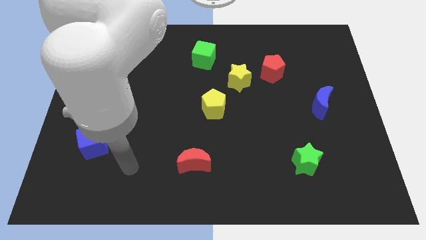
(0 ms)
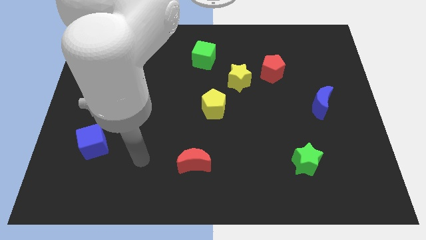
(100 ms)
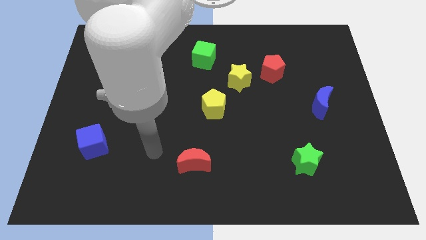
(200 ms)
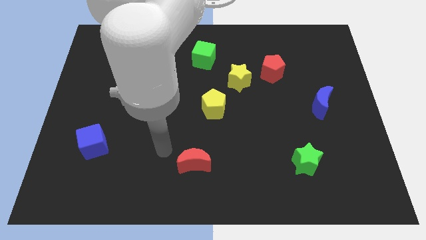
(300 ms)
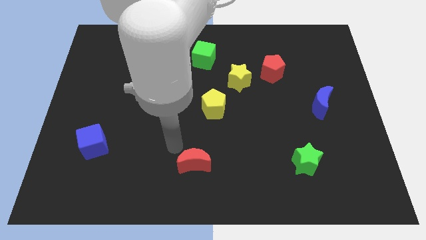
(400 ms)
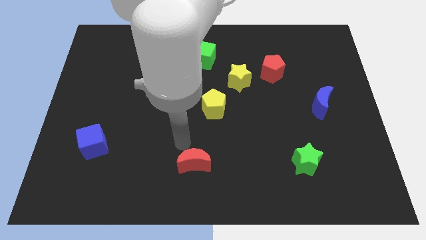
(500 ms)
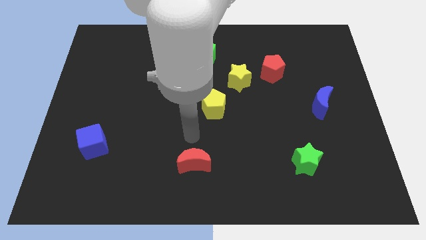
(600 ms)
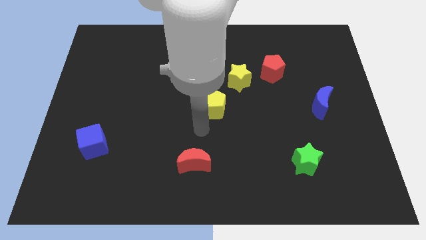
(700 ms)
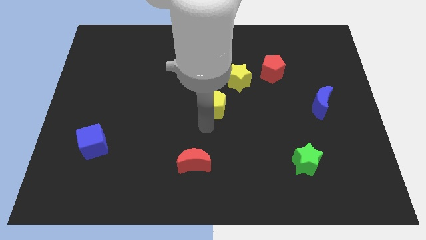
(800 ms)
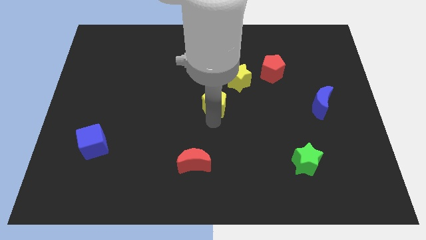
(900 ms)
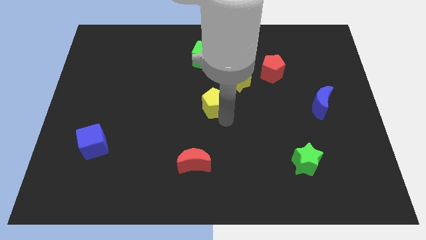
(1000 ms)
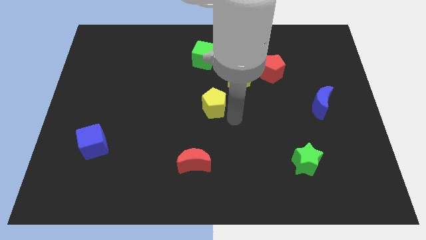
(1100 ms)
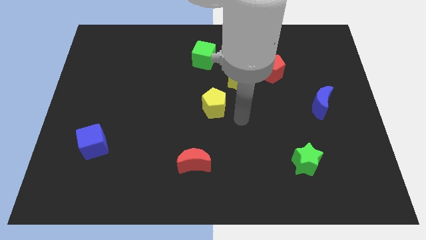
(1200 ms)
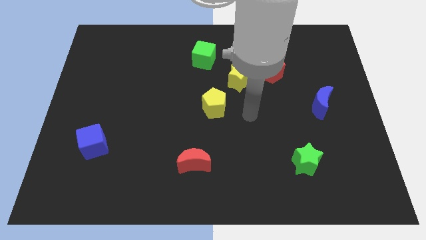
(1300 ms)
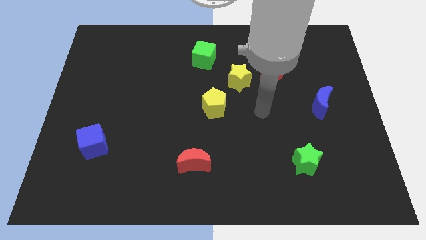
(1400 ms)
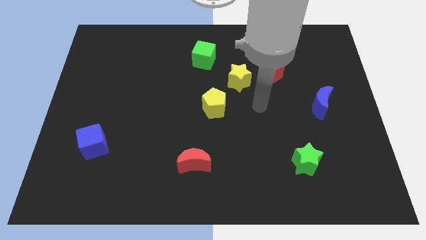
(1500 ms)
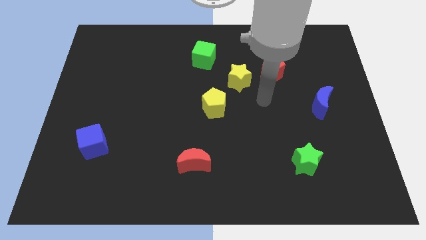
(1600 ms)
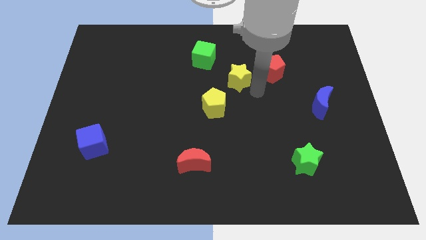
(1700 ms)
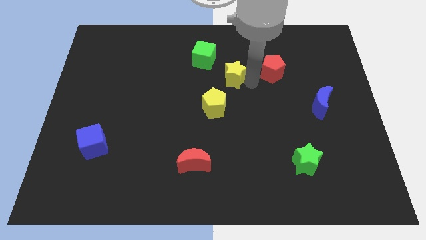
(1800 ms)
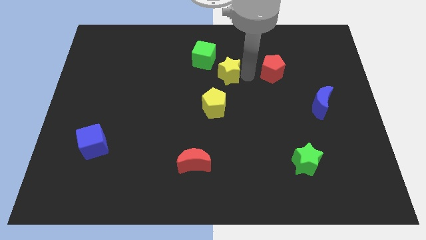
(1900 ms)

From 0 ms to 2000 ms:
move the red pentagon away from the yellow star

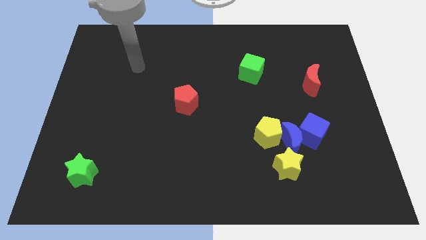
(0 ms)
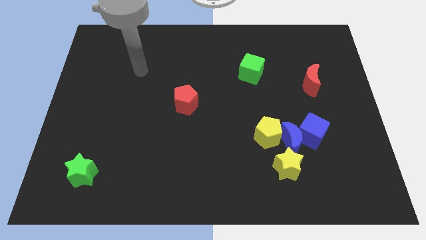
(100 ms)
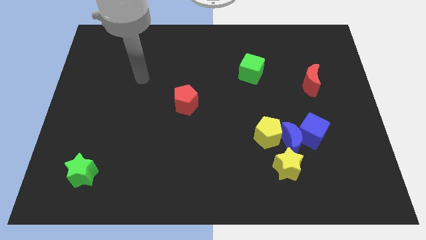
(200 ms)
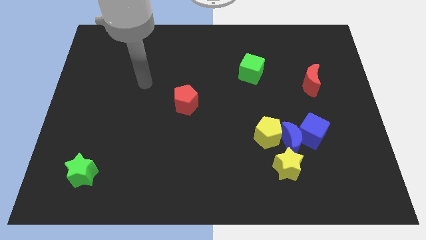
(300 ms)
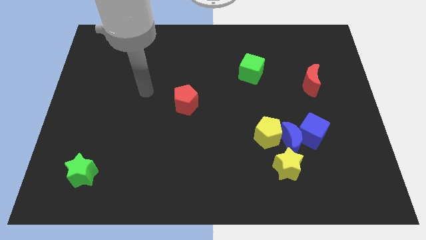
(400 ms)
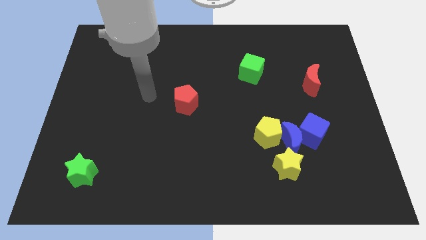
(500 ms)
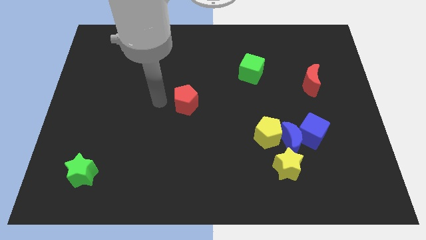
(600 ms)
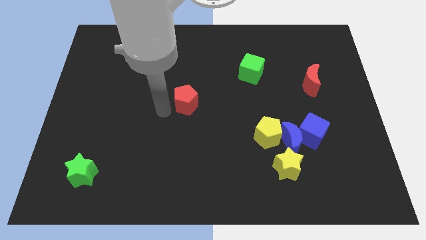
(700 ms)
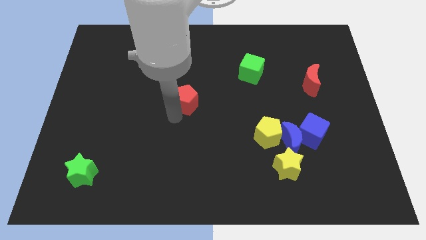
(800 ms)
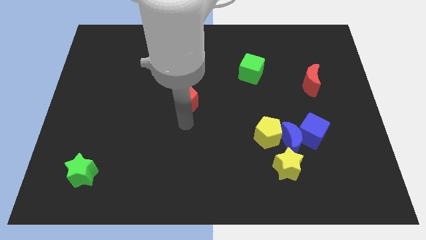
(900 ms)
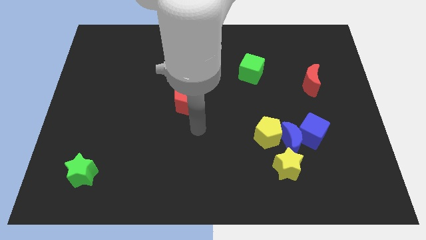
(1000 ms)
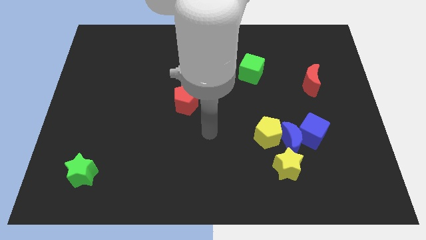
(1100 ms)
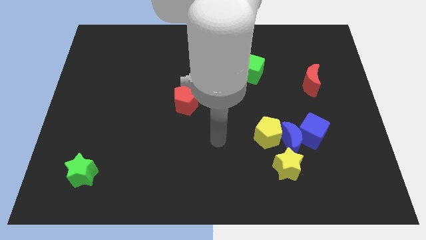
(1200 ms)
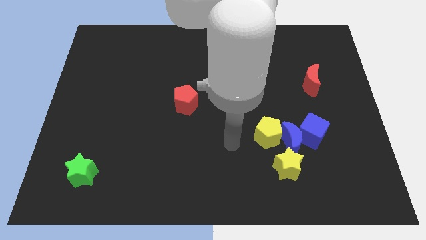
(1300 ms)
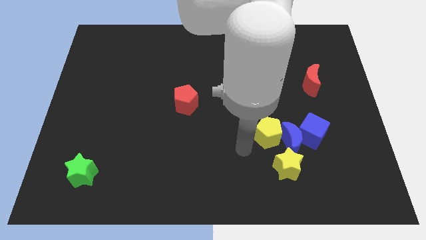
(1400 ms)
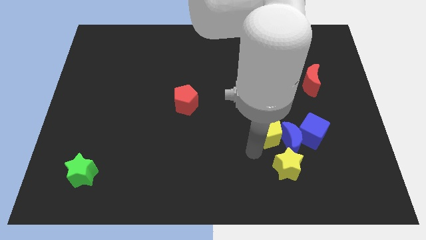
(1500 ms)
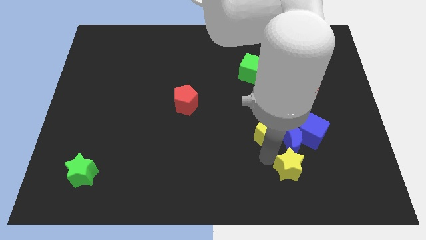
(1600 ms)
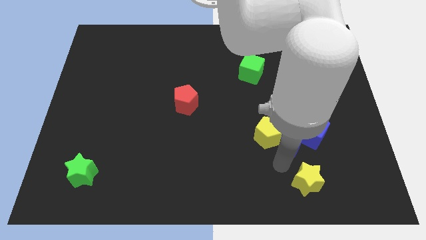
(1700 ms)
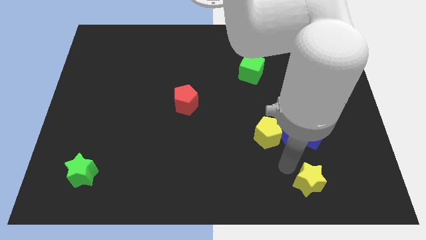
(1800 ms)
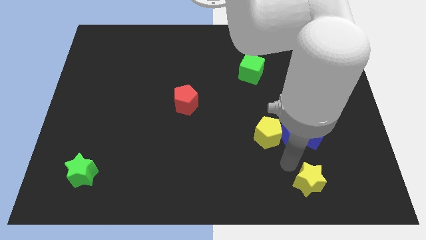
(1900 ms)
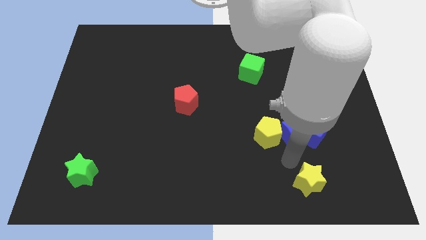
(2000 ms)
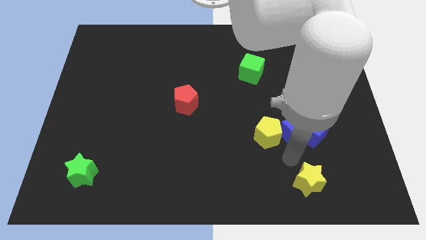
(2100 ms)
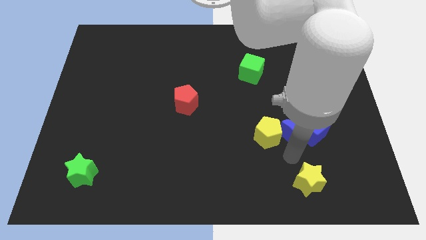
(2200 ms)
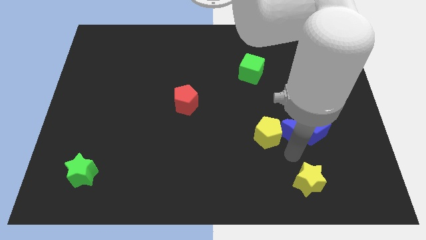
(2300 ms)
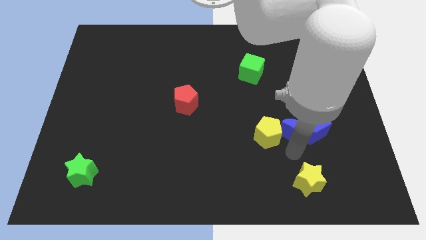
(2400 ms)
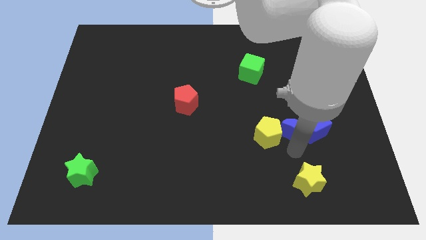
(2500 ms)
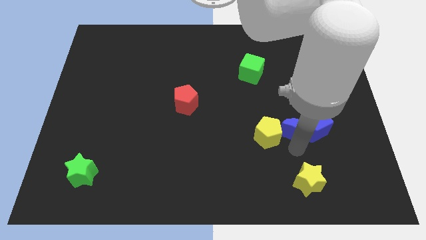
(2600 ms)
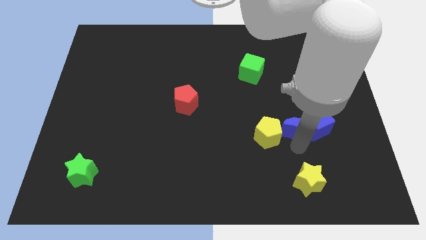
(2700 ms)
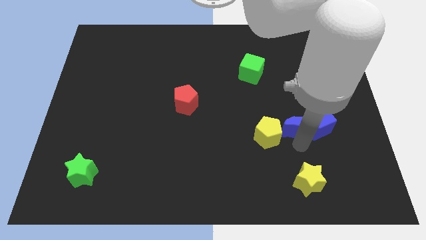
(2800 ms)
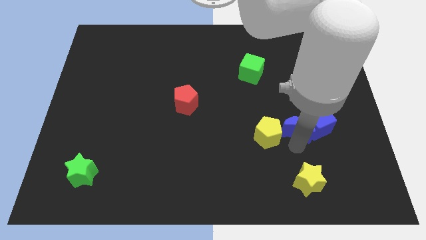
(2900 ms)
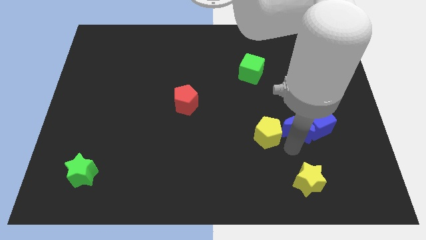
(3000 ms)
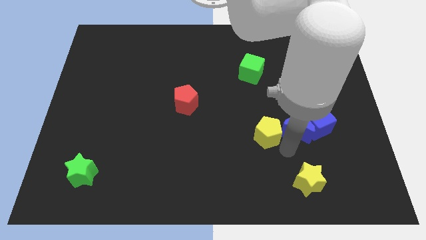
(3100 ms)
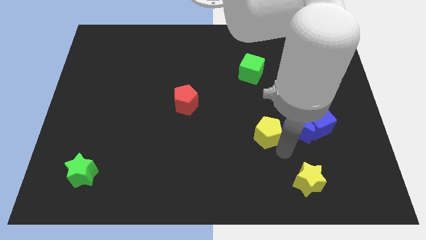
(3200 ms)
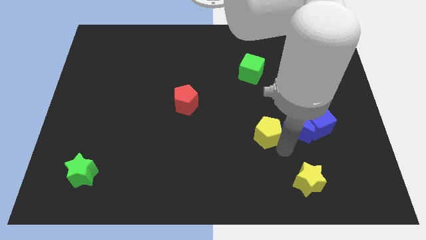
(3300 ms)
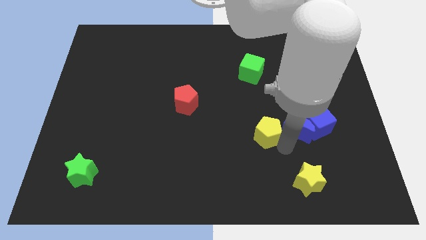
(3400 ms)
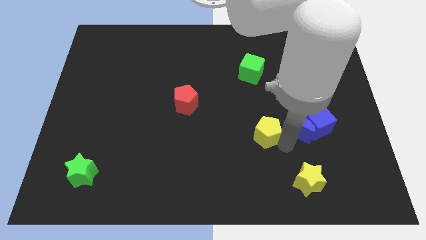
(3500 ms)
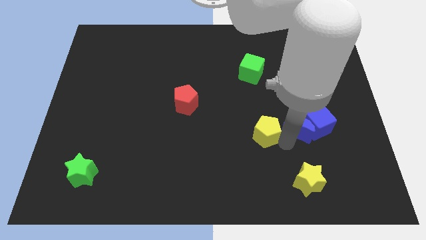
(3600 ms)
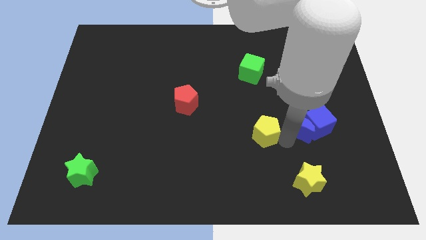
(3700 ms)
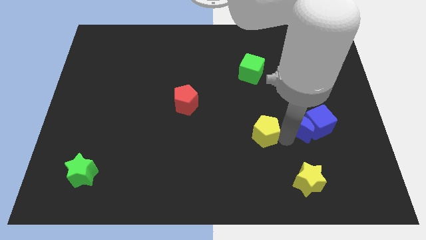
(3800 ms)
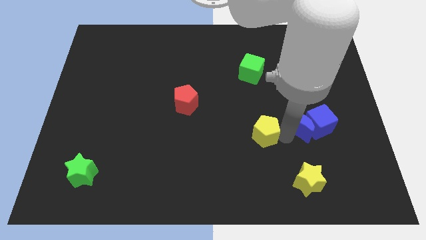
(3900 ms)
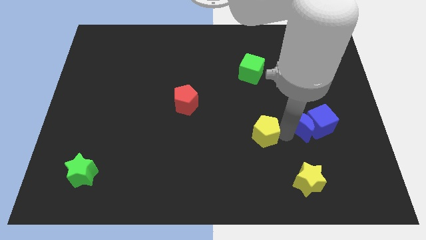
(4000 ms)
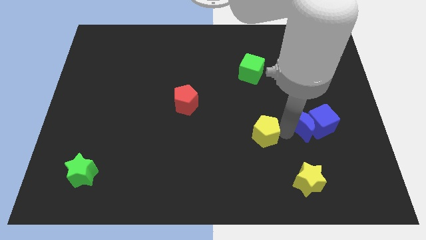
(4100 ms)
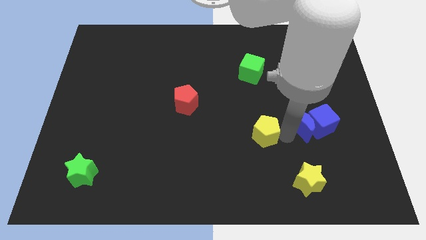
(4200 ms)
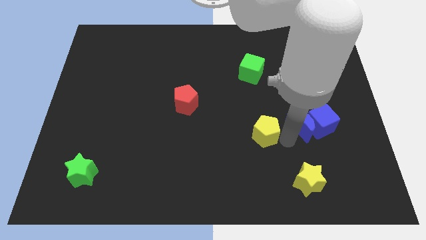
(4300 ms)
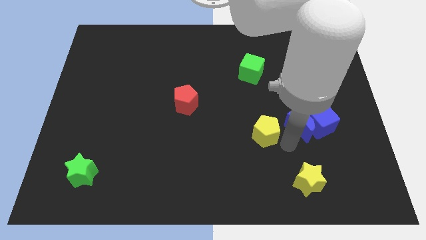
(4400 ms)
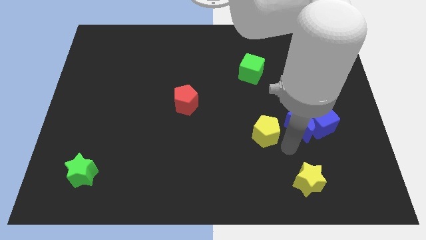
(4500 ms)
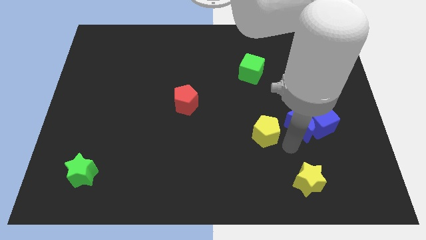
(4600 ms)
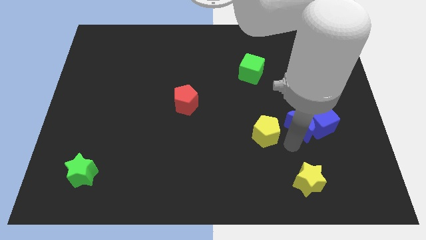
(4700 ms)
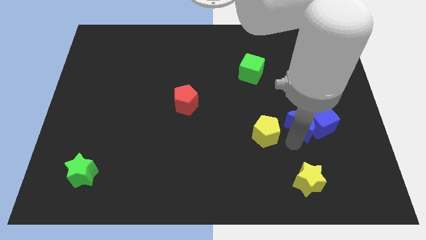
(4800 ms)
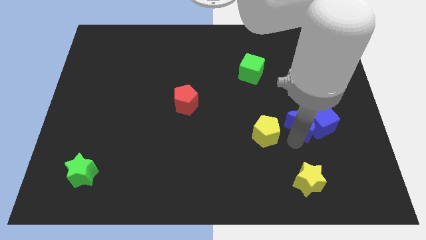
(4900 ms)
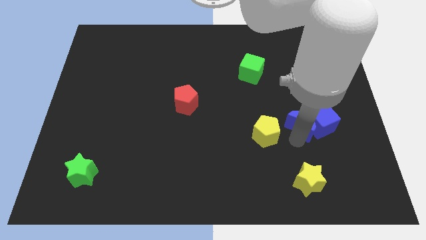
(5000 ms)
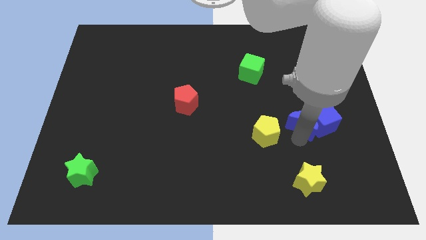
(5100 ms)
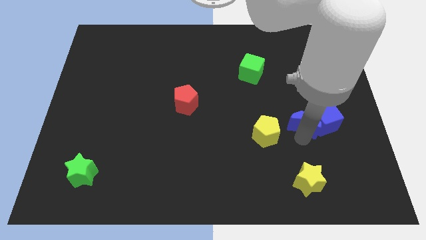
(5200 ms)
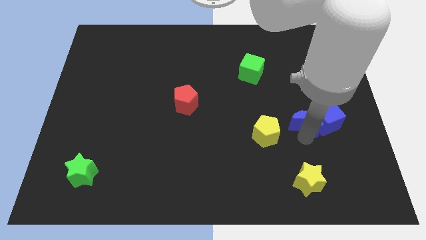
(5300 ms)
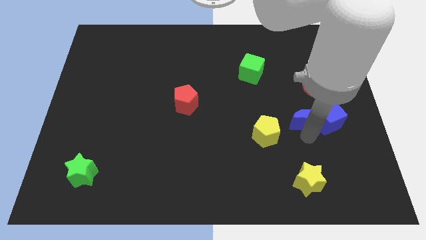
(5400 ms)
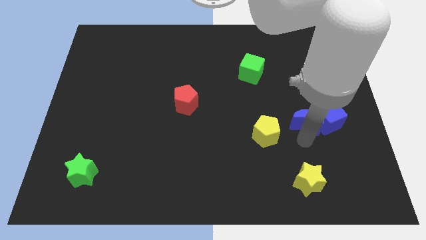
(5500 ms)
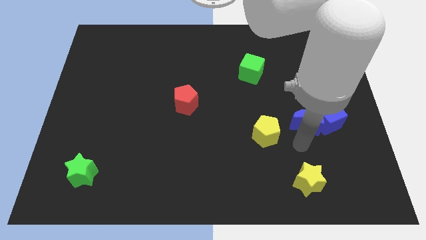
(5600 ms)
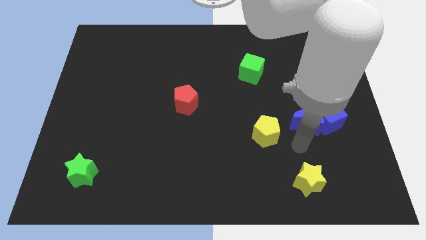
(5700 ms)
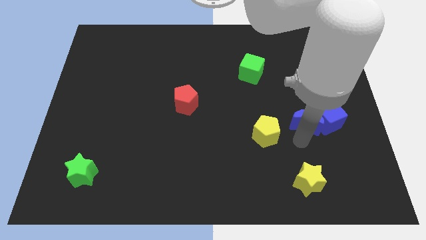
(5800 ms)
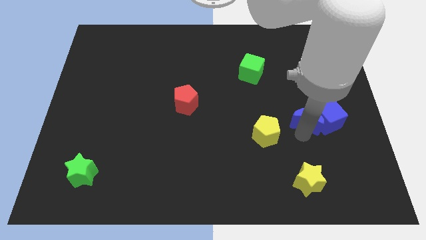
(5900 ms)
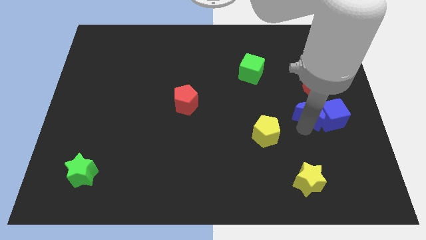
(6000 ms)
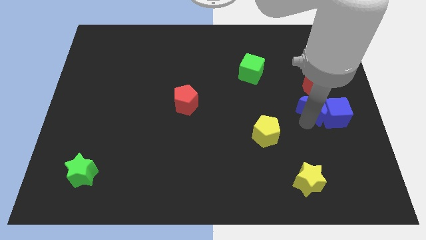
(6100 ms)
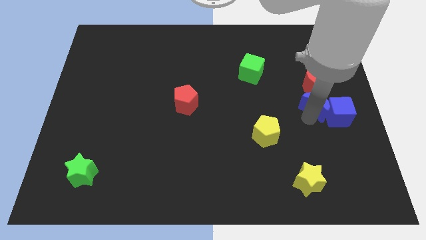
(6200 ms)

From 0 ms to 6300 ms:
move the blue moon away from the blue cube, yellow pentagon, and yellow star

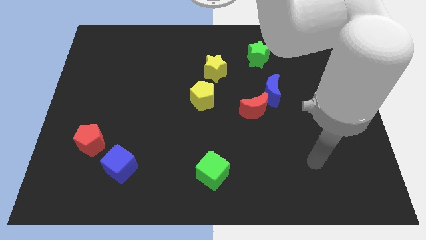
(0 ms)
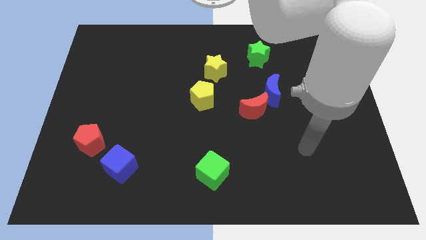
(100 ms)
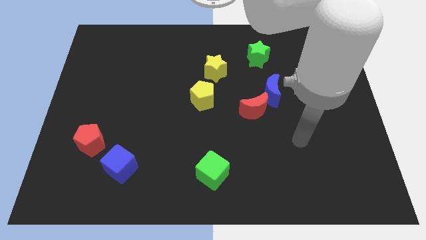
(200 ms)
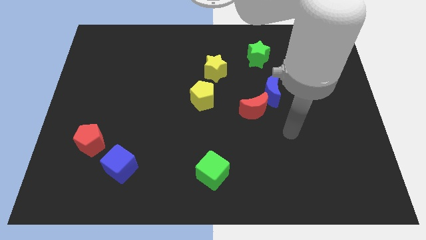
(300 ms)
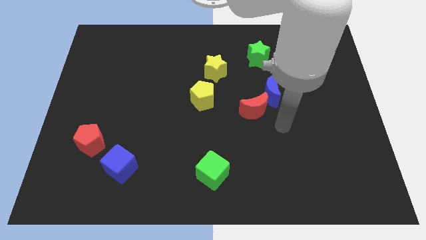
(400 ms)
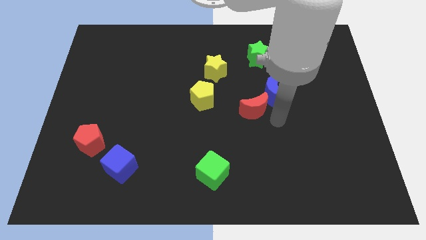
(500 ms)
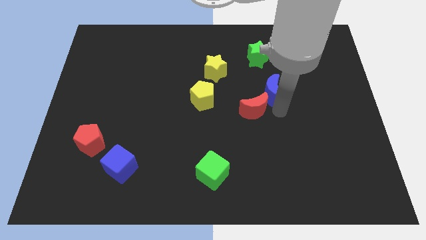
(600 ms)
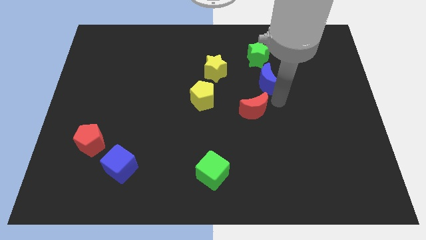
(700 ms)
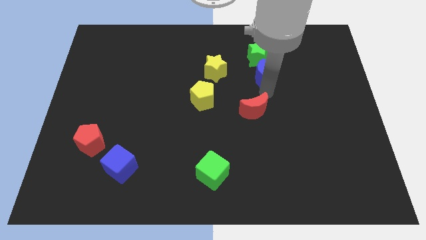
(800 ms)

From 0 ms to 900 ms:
move the red moon away from the blue moon

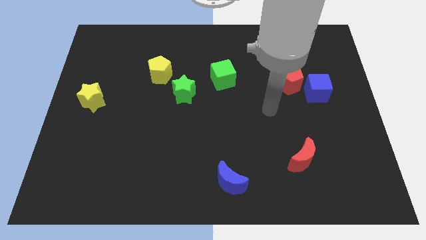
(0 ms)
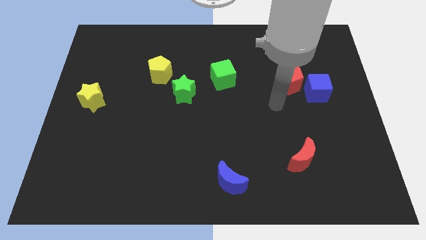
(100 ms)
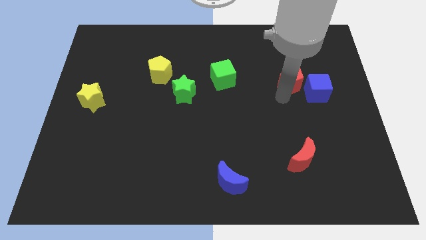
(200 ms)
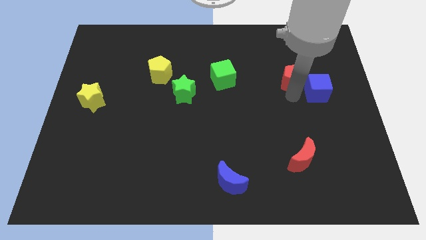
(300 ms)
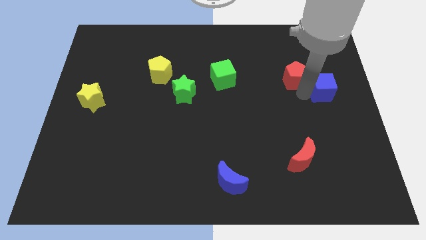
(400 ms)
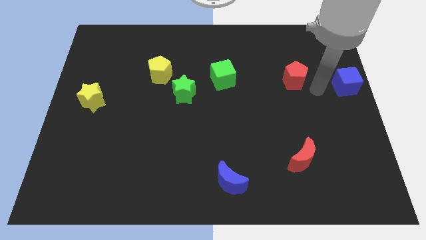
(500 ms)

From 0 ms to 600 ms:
separate the red pentagon from the blue cube
